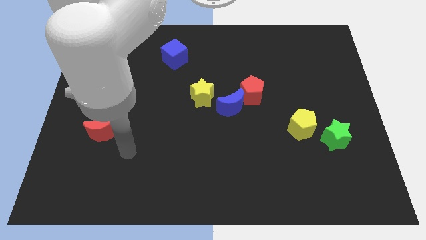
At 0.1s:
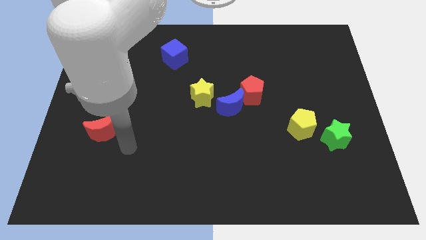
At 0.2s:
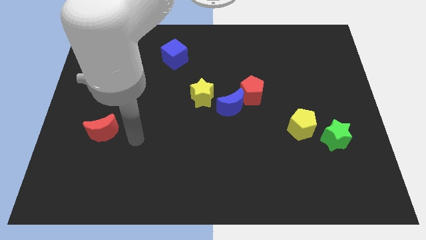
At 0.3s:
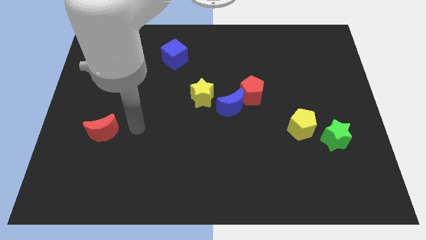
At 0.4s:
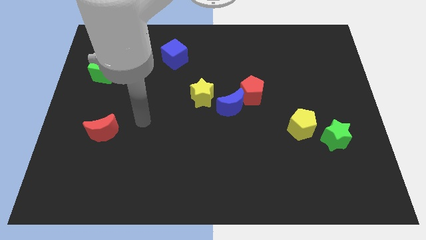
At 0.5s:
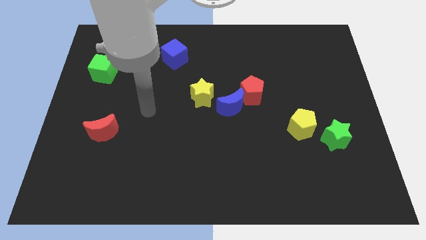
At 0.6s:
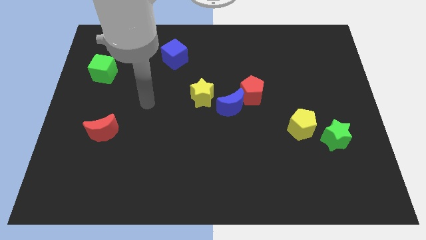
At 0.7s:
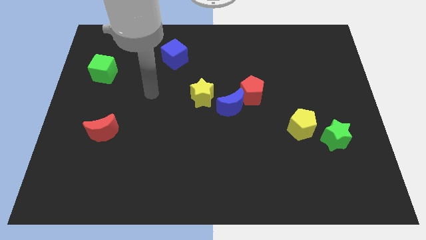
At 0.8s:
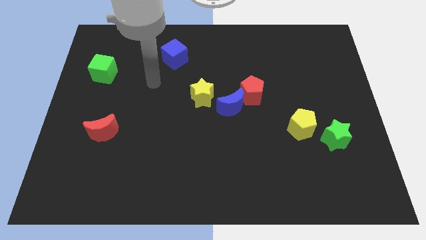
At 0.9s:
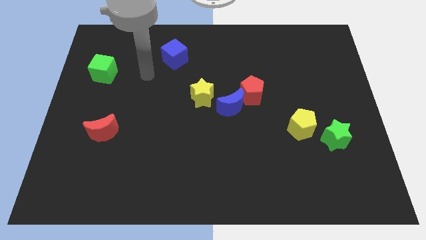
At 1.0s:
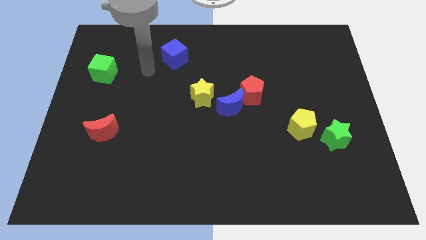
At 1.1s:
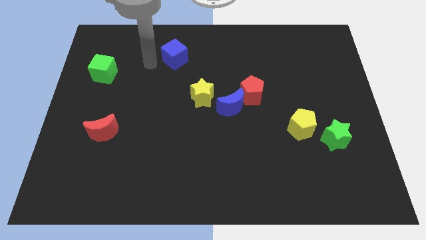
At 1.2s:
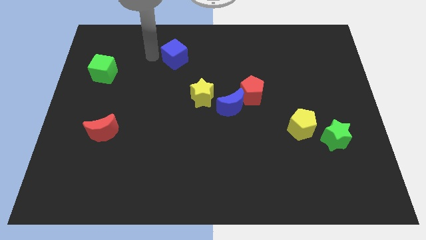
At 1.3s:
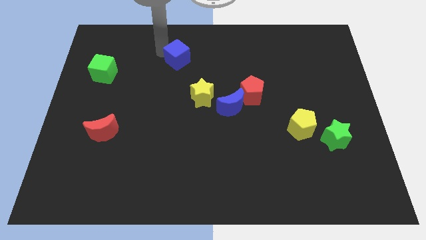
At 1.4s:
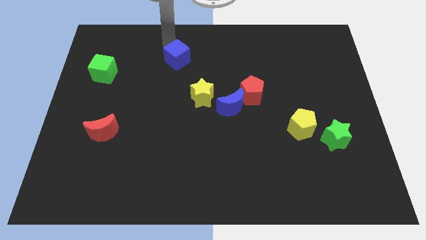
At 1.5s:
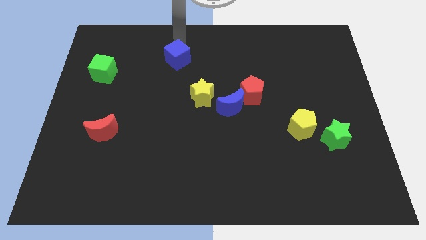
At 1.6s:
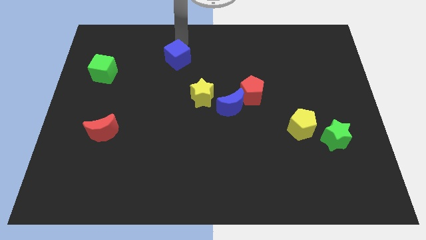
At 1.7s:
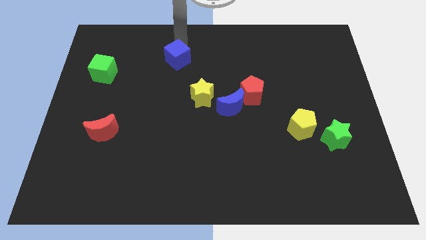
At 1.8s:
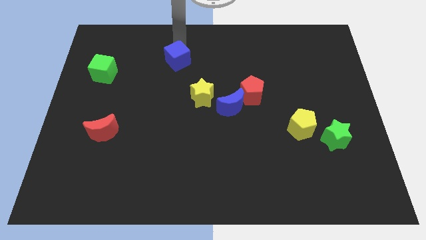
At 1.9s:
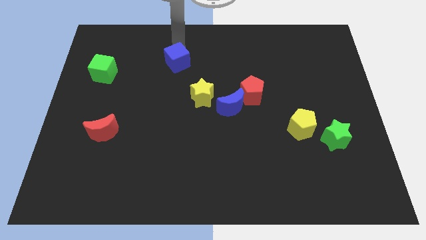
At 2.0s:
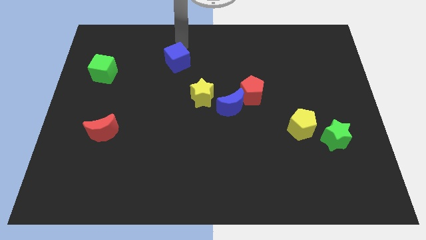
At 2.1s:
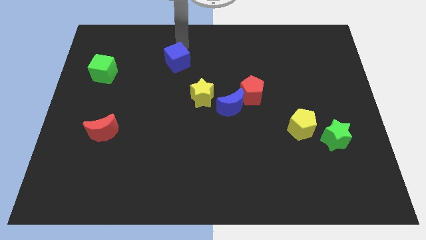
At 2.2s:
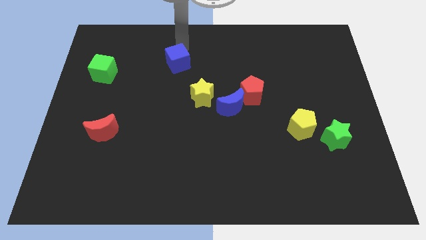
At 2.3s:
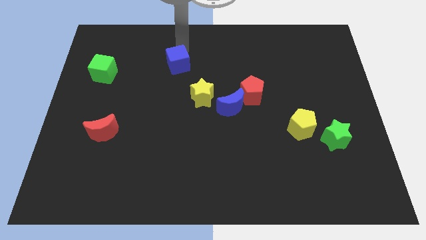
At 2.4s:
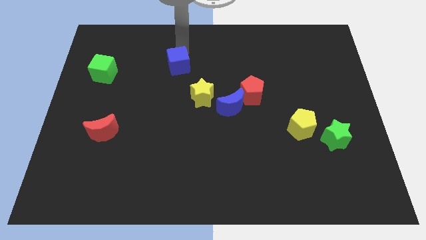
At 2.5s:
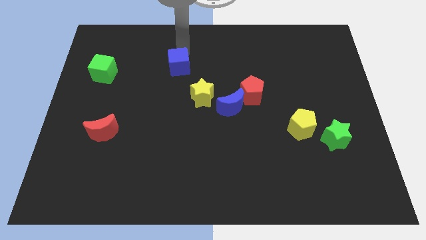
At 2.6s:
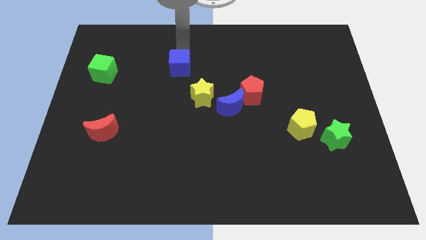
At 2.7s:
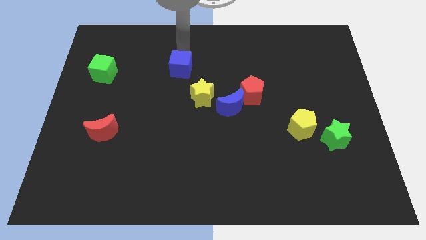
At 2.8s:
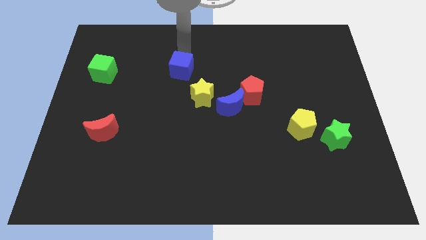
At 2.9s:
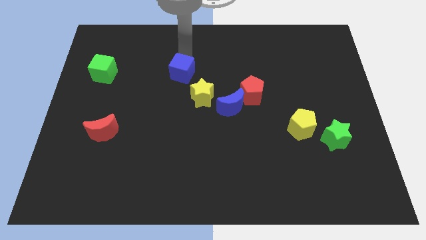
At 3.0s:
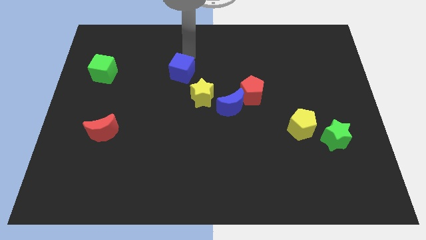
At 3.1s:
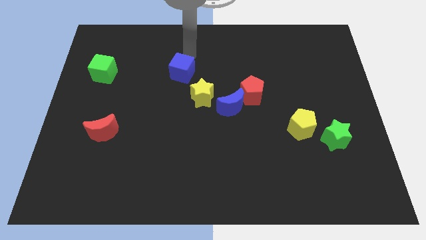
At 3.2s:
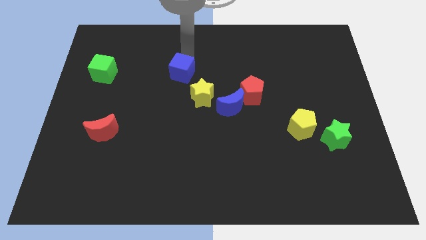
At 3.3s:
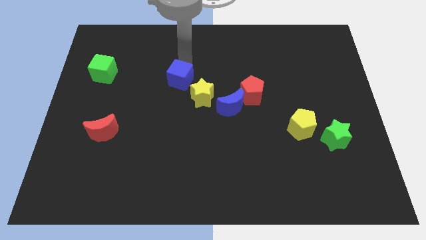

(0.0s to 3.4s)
slide the blue cube a little down

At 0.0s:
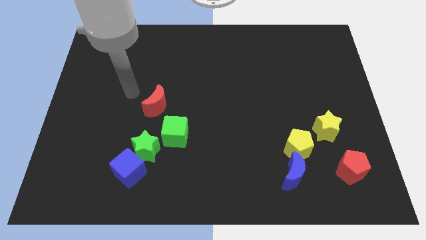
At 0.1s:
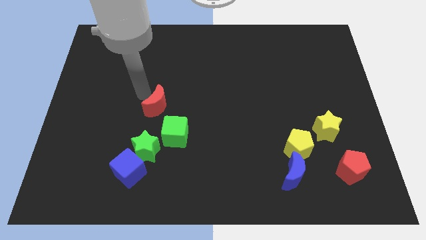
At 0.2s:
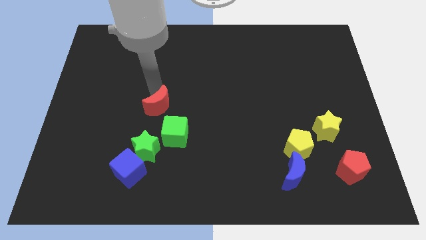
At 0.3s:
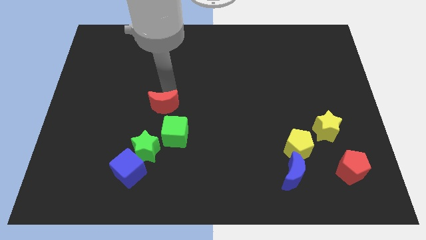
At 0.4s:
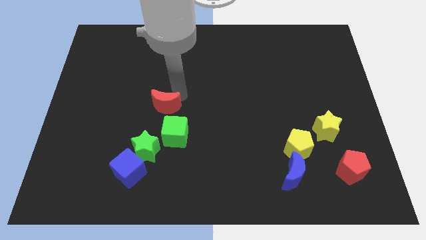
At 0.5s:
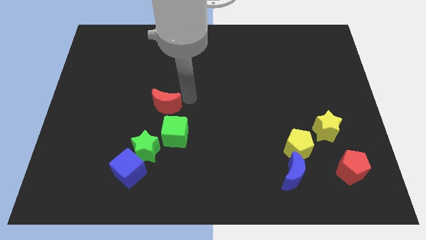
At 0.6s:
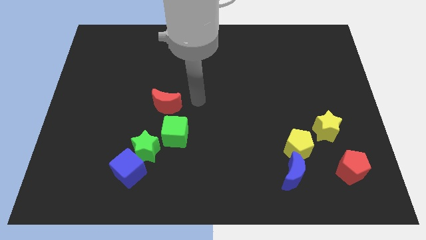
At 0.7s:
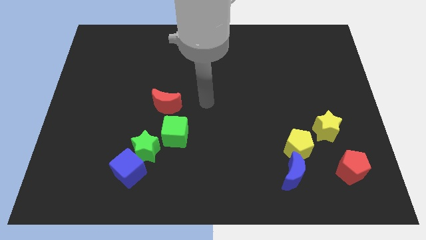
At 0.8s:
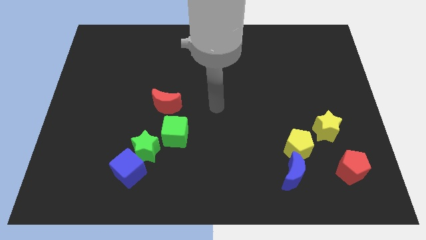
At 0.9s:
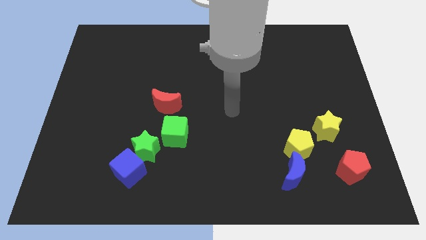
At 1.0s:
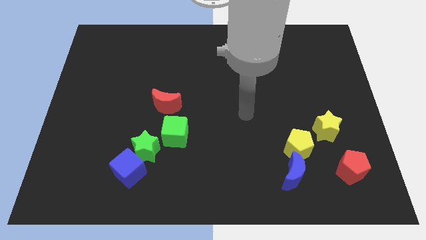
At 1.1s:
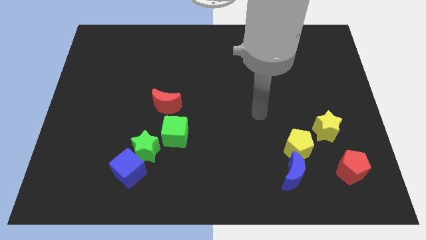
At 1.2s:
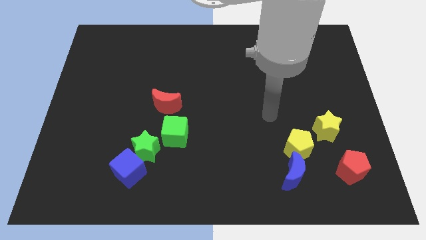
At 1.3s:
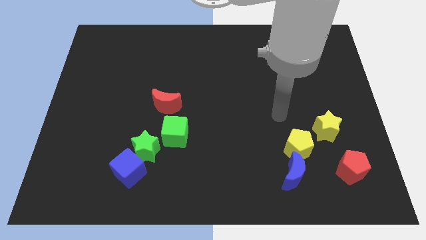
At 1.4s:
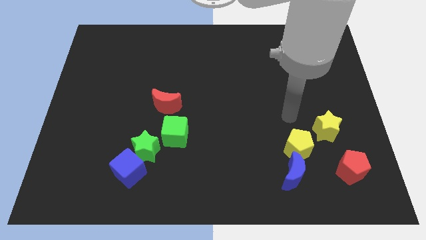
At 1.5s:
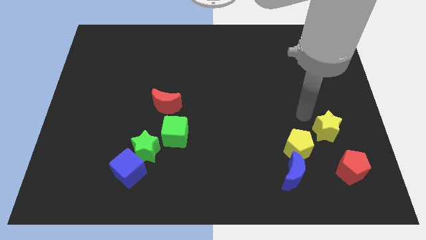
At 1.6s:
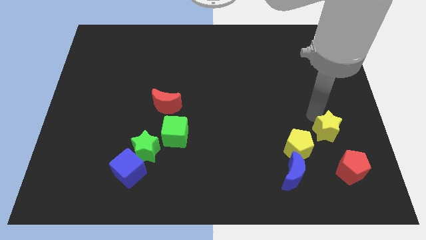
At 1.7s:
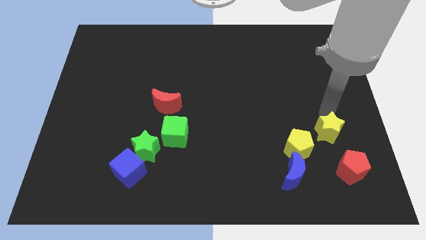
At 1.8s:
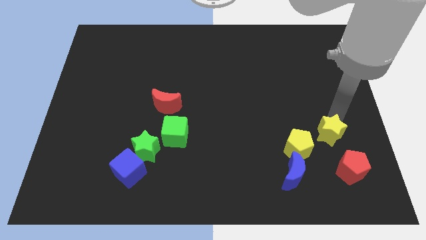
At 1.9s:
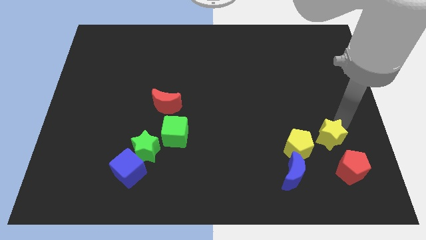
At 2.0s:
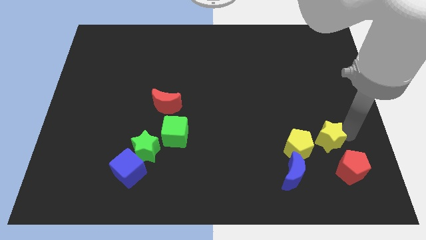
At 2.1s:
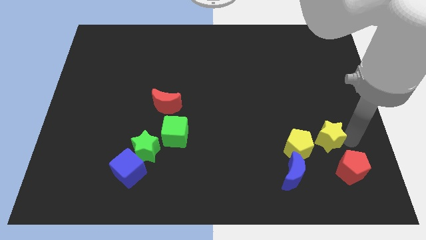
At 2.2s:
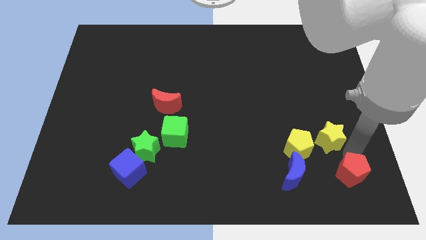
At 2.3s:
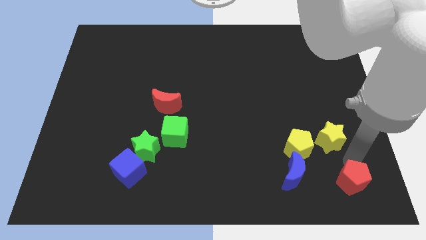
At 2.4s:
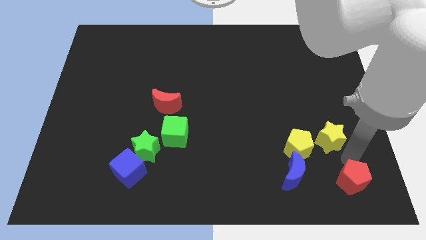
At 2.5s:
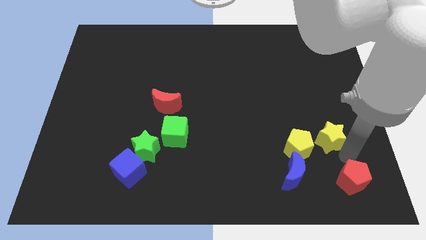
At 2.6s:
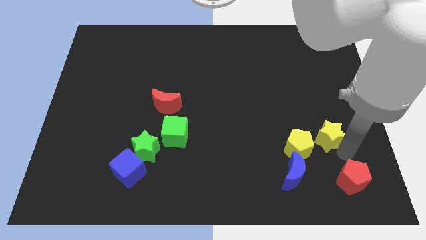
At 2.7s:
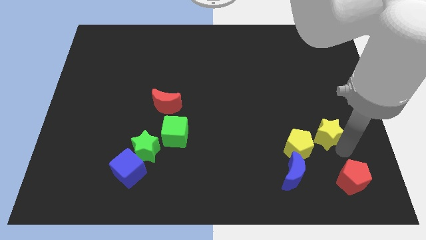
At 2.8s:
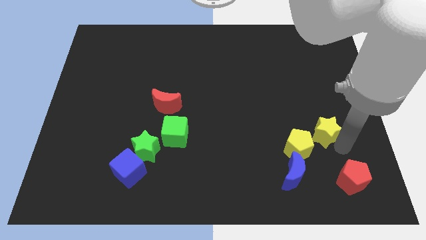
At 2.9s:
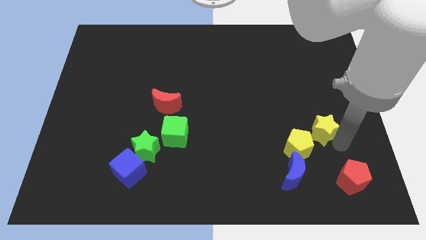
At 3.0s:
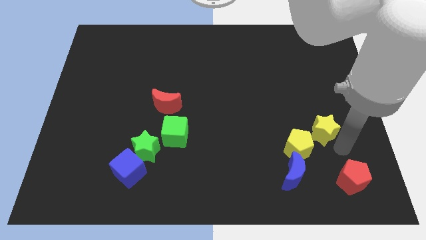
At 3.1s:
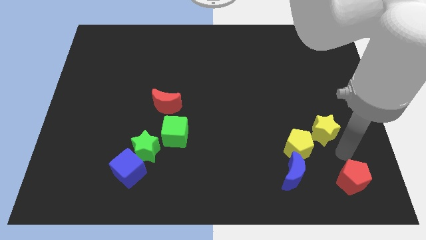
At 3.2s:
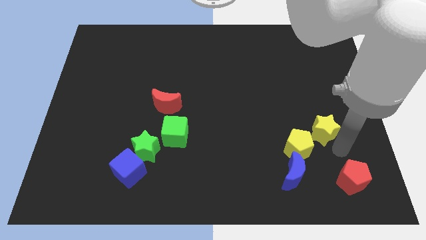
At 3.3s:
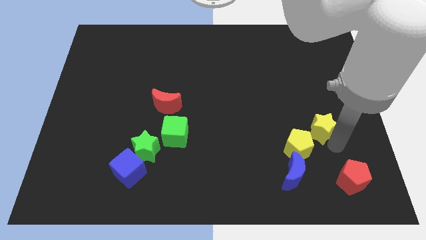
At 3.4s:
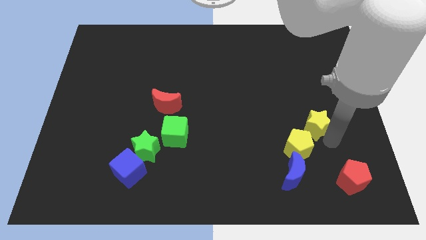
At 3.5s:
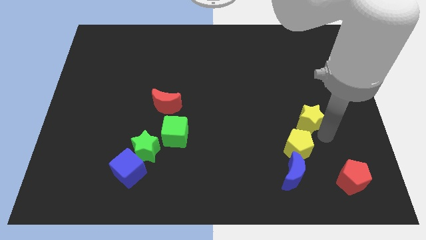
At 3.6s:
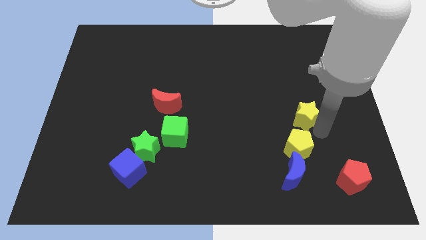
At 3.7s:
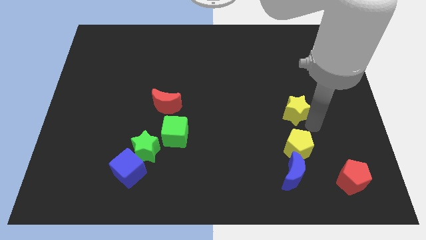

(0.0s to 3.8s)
slide the yellow star up and to the left slightly

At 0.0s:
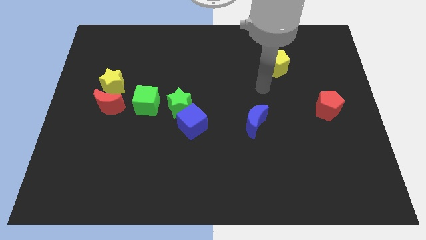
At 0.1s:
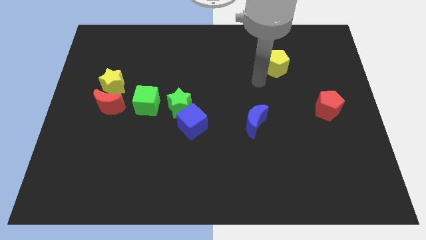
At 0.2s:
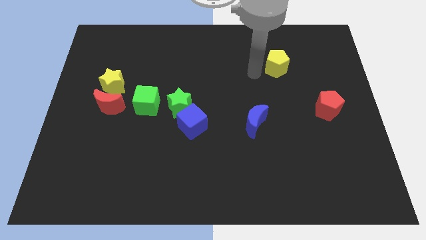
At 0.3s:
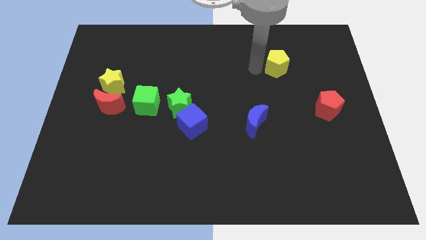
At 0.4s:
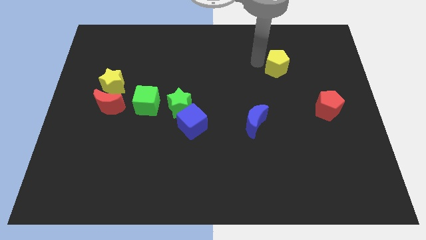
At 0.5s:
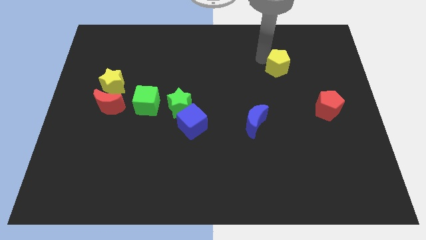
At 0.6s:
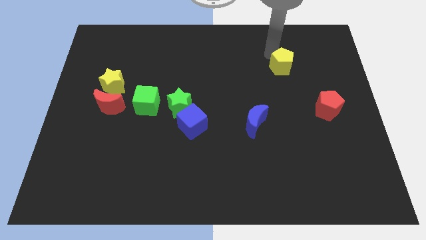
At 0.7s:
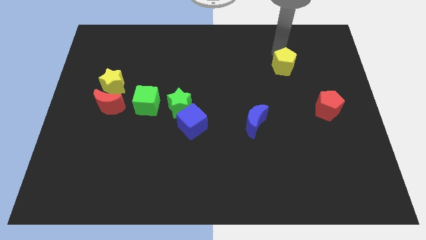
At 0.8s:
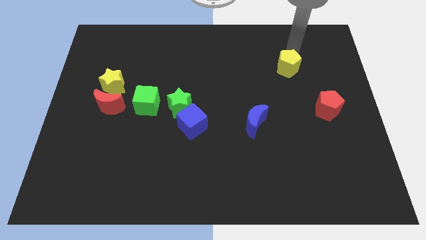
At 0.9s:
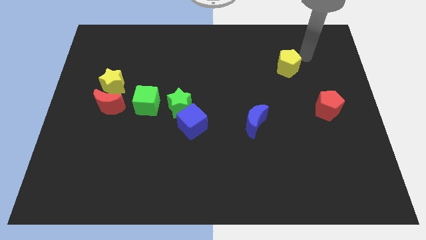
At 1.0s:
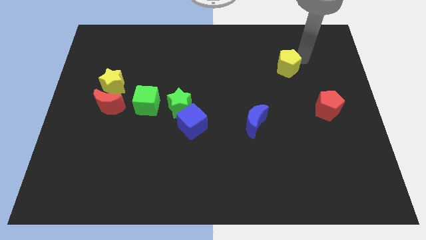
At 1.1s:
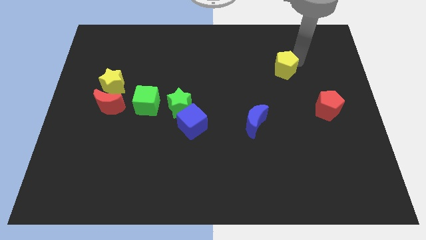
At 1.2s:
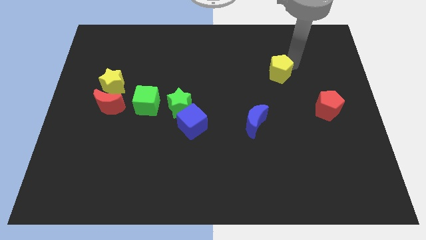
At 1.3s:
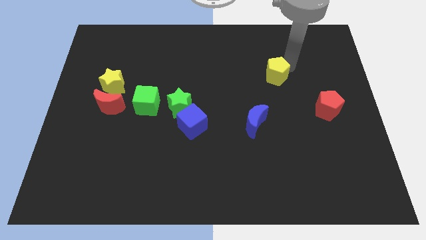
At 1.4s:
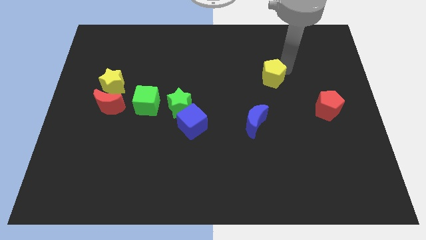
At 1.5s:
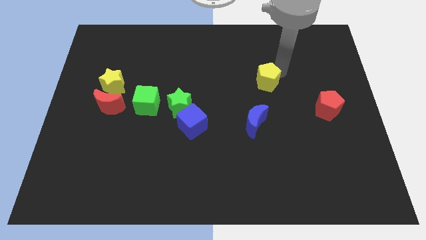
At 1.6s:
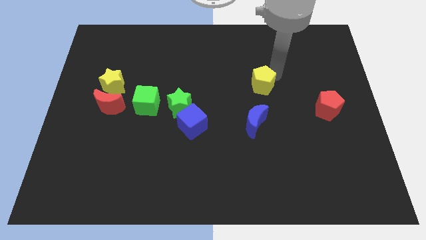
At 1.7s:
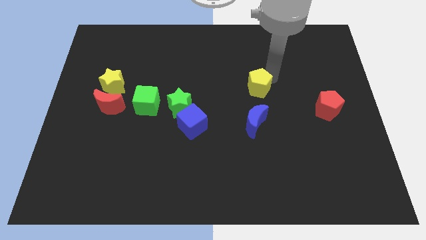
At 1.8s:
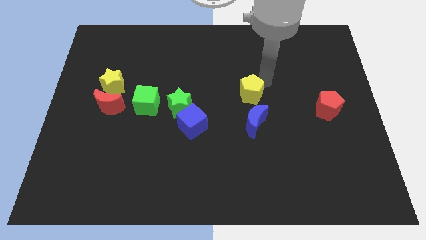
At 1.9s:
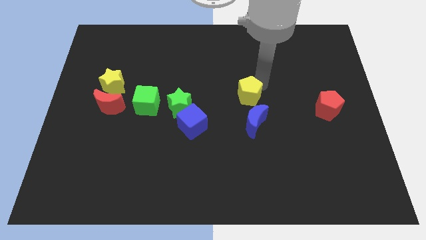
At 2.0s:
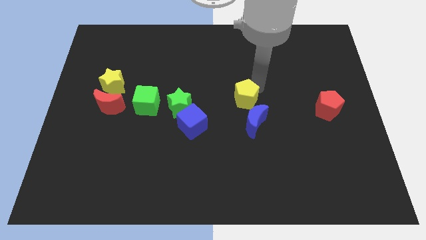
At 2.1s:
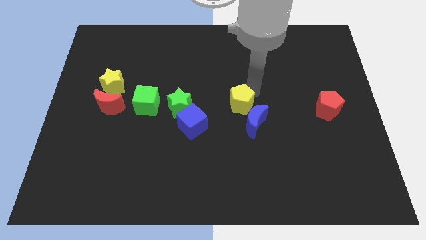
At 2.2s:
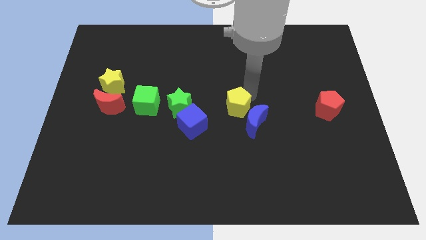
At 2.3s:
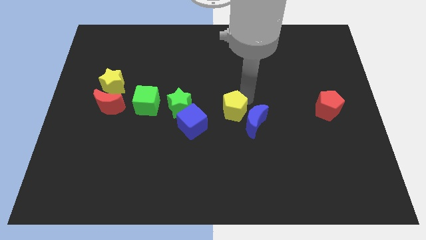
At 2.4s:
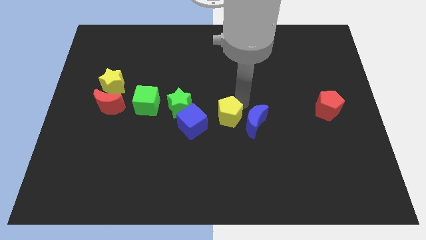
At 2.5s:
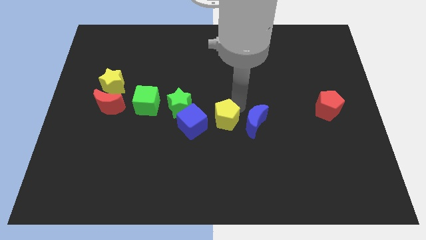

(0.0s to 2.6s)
slide the yellow pentagon downwards and to the left diagonally
